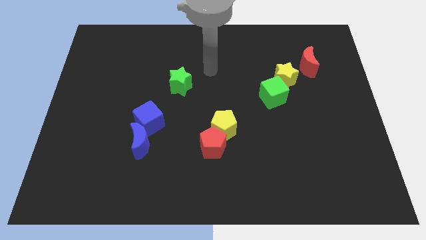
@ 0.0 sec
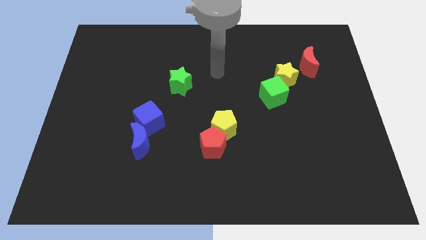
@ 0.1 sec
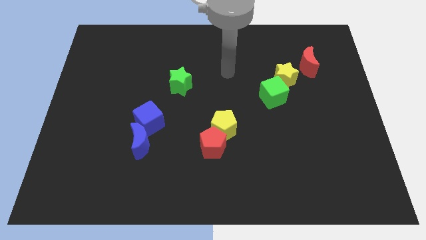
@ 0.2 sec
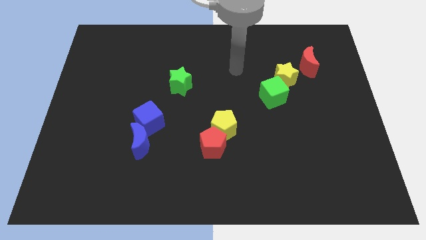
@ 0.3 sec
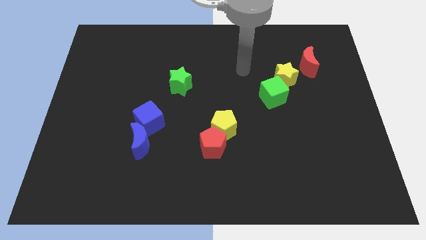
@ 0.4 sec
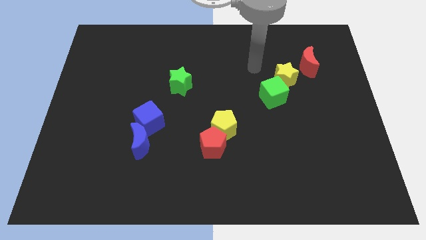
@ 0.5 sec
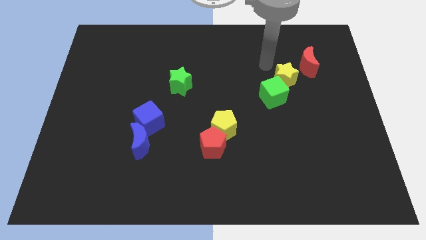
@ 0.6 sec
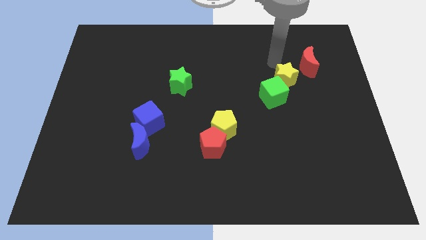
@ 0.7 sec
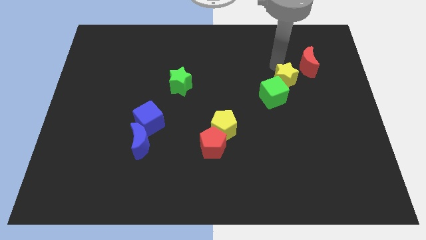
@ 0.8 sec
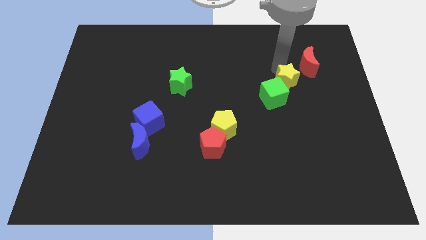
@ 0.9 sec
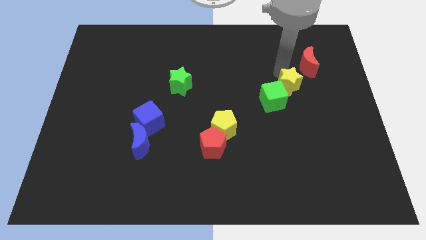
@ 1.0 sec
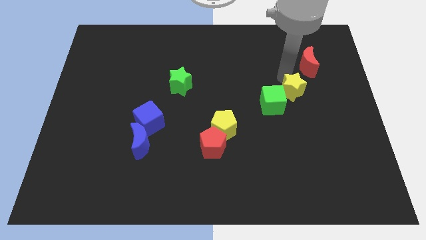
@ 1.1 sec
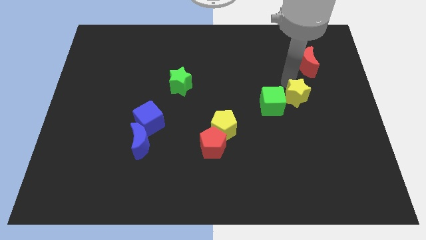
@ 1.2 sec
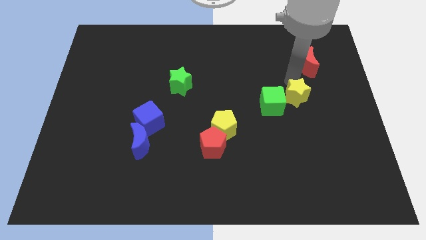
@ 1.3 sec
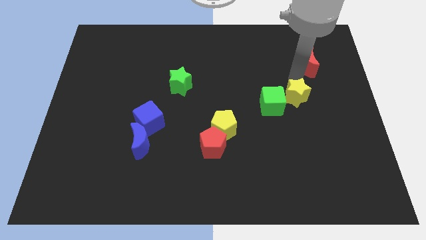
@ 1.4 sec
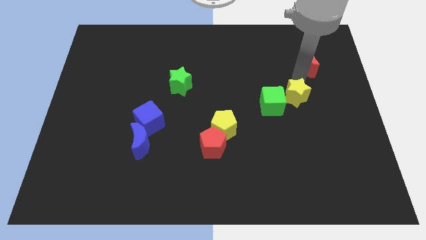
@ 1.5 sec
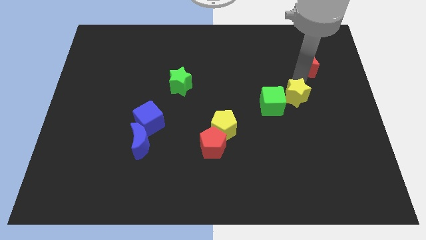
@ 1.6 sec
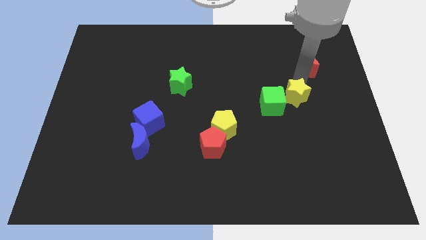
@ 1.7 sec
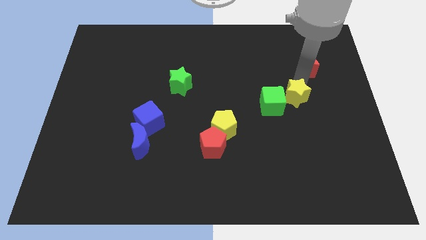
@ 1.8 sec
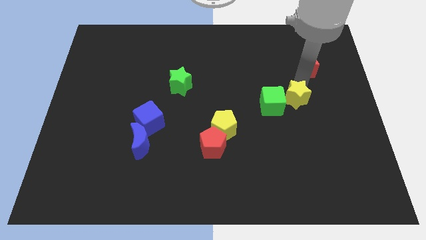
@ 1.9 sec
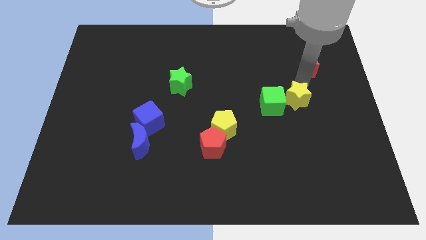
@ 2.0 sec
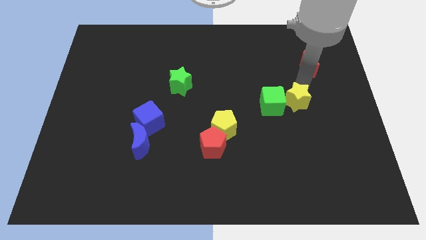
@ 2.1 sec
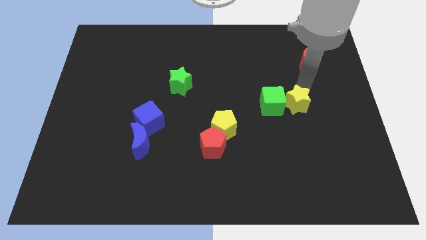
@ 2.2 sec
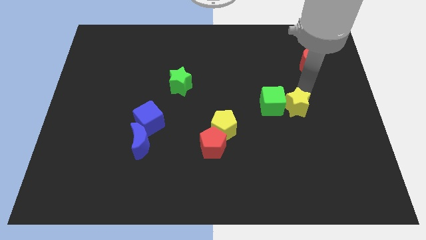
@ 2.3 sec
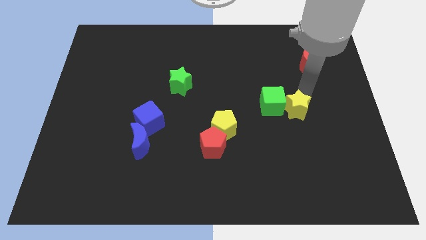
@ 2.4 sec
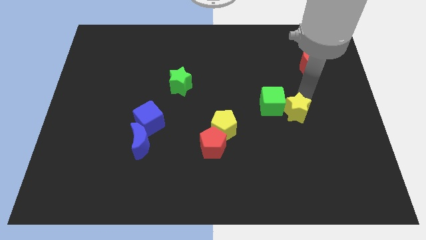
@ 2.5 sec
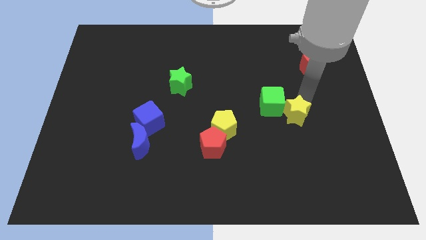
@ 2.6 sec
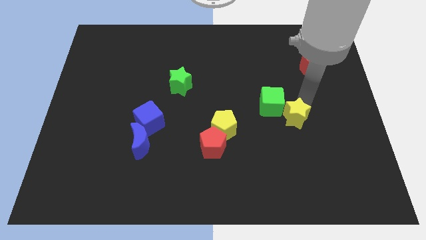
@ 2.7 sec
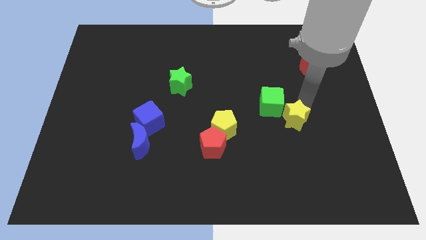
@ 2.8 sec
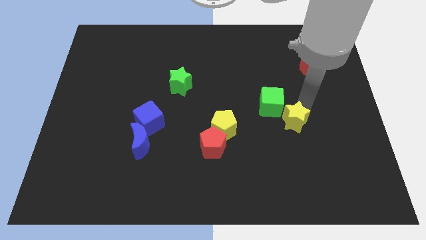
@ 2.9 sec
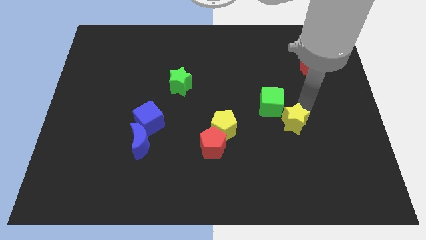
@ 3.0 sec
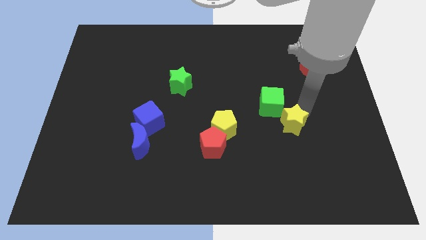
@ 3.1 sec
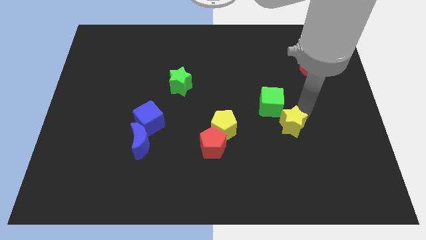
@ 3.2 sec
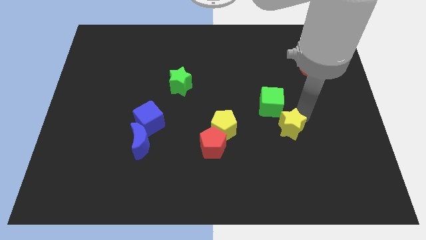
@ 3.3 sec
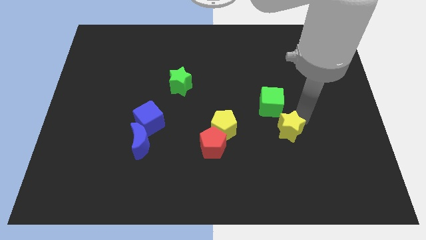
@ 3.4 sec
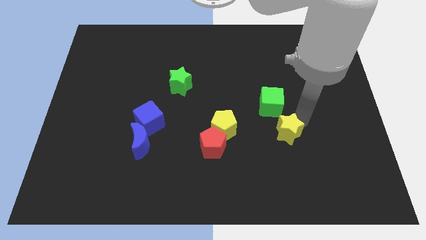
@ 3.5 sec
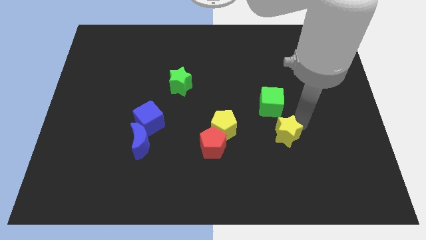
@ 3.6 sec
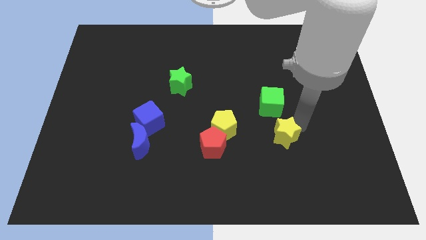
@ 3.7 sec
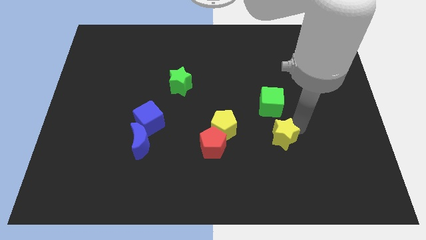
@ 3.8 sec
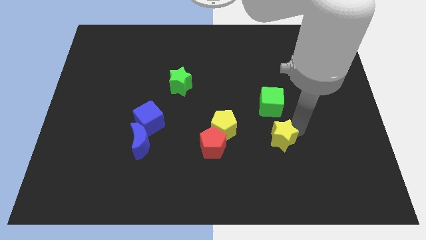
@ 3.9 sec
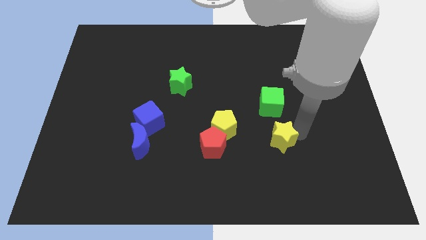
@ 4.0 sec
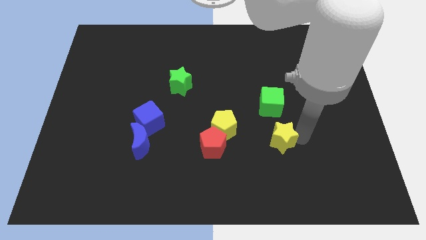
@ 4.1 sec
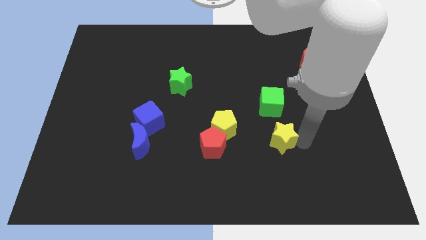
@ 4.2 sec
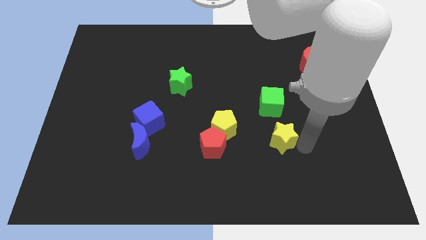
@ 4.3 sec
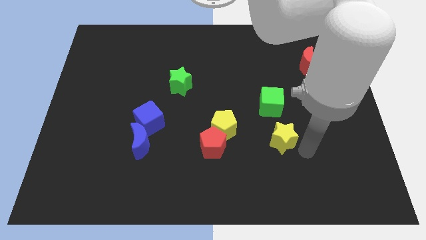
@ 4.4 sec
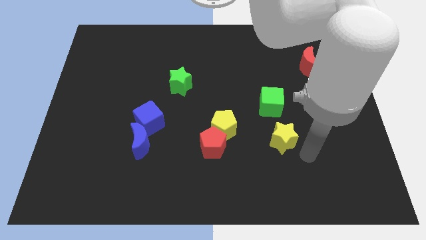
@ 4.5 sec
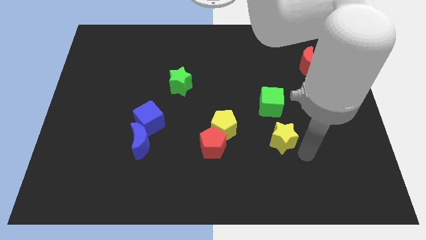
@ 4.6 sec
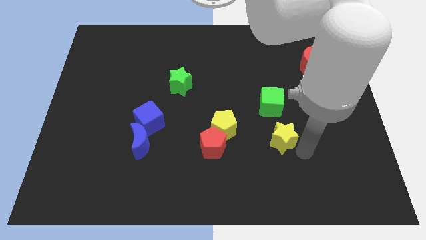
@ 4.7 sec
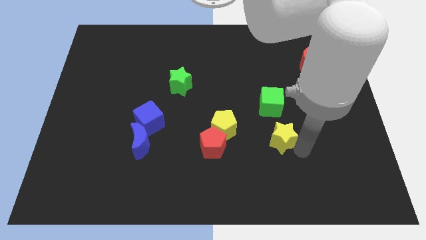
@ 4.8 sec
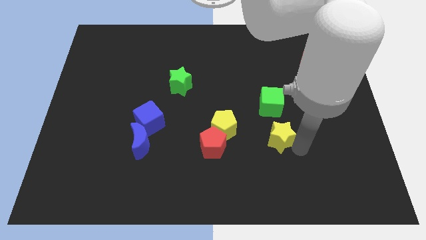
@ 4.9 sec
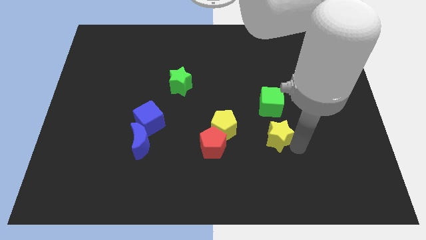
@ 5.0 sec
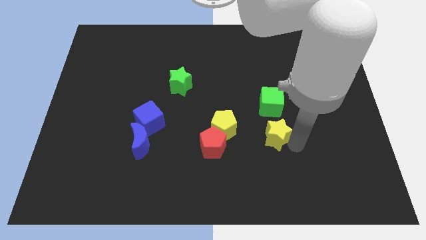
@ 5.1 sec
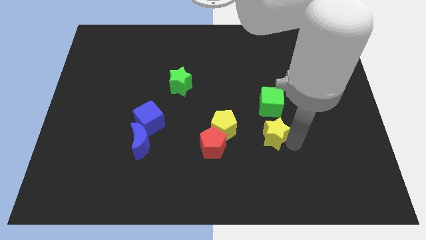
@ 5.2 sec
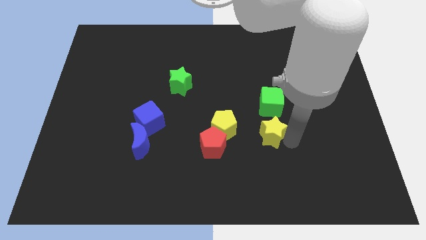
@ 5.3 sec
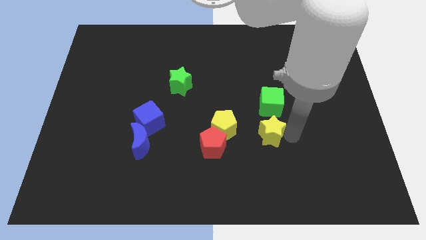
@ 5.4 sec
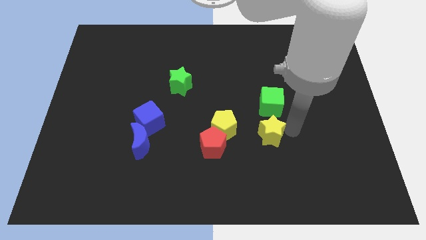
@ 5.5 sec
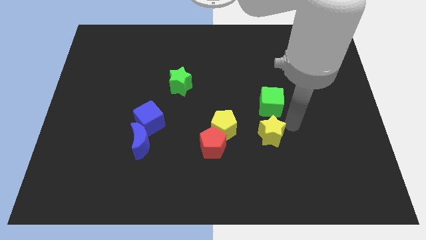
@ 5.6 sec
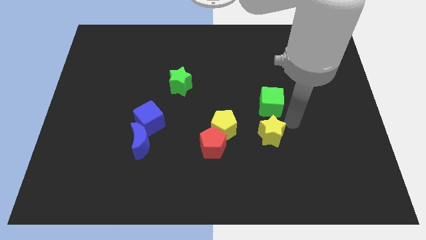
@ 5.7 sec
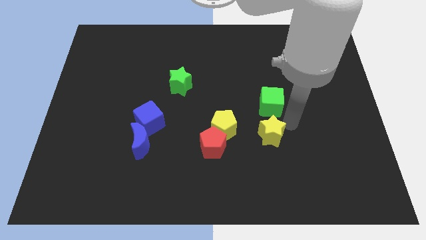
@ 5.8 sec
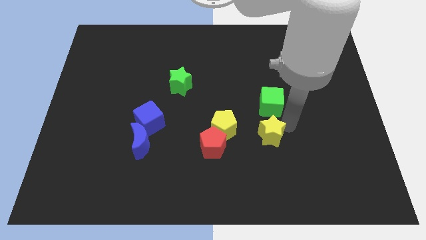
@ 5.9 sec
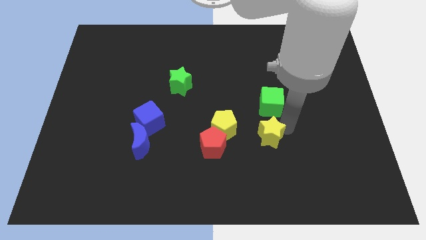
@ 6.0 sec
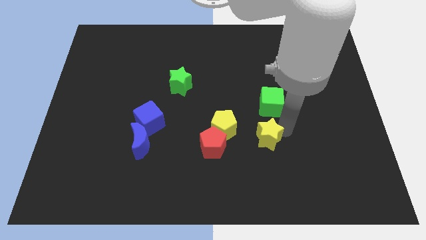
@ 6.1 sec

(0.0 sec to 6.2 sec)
put the yellow star diagonally down and to the right of the yellow pentagon

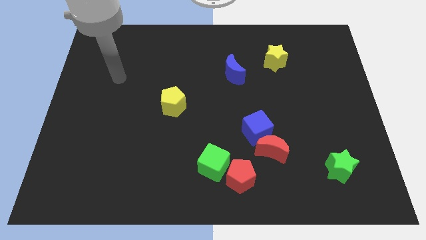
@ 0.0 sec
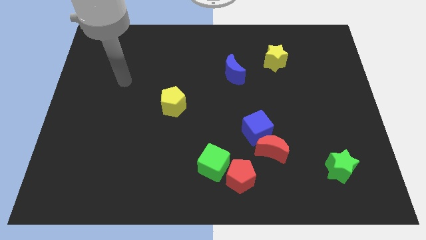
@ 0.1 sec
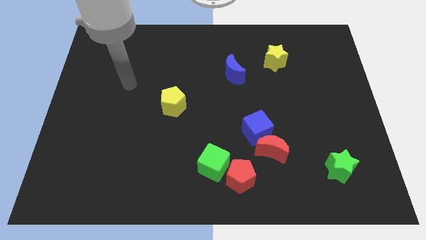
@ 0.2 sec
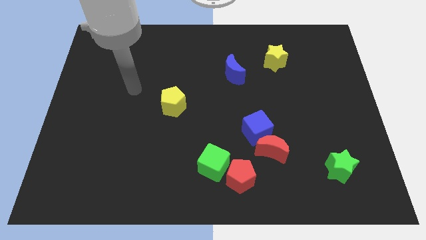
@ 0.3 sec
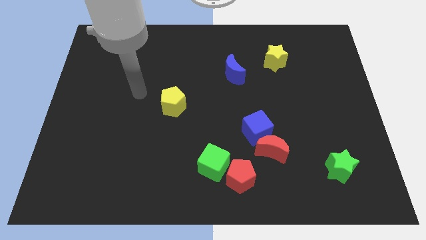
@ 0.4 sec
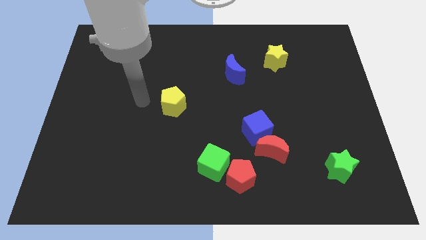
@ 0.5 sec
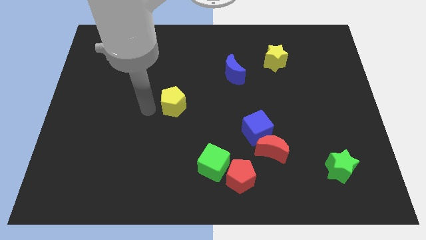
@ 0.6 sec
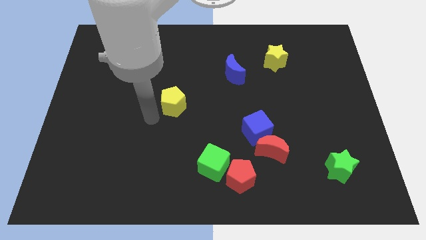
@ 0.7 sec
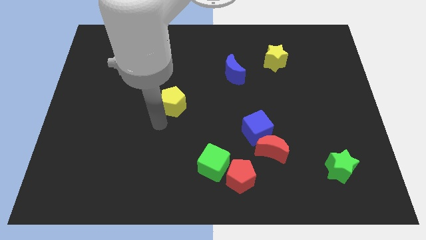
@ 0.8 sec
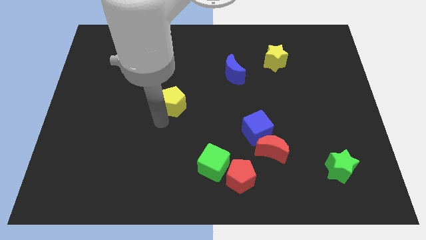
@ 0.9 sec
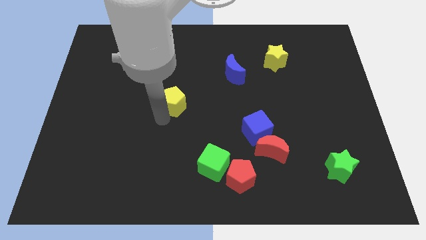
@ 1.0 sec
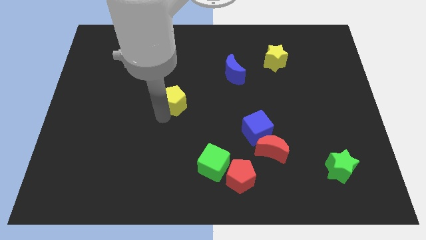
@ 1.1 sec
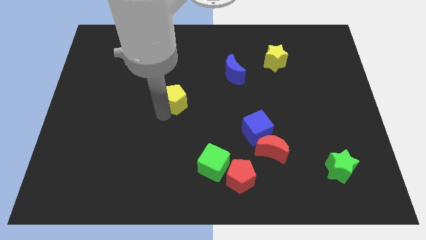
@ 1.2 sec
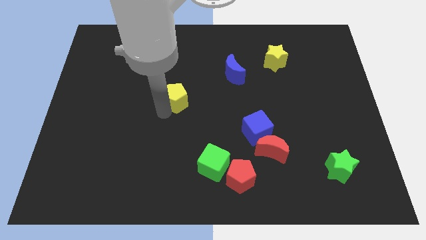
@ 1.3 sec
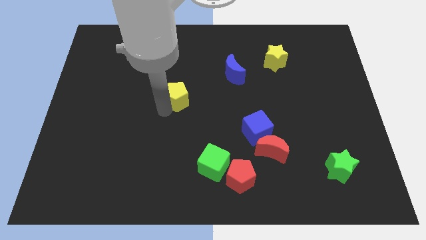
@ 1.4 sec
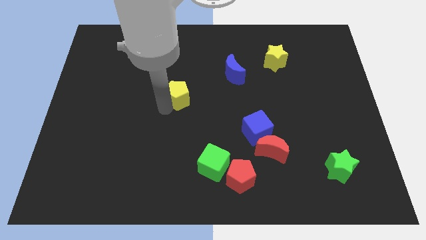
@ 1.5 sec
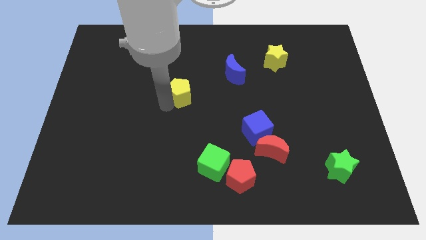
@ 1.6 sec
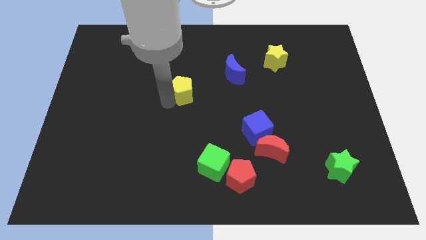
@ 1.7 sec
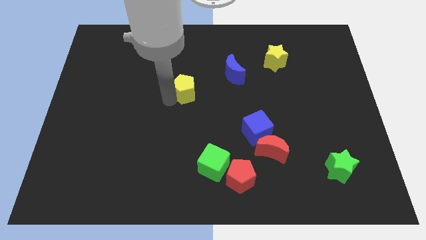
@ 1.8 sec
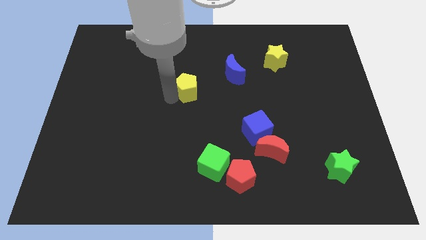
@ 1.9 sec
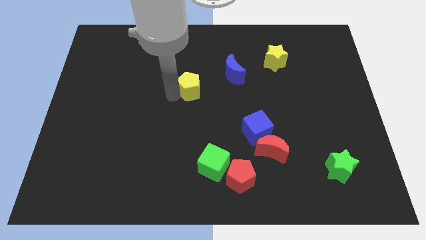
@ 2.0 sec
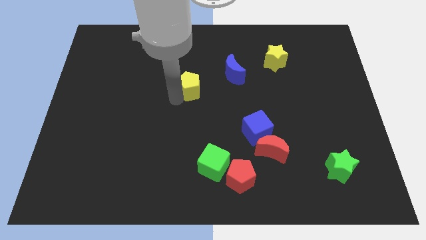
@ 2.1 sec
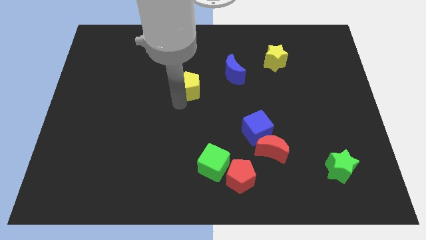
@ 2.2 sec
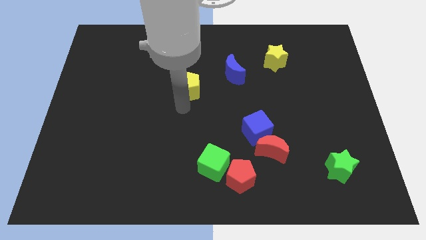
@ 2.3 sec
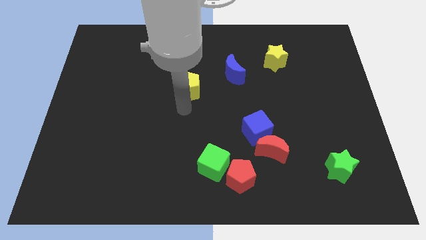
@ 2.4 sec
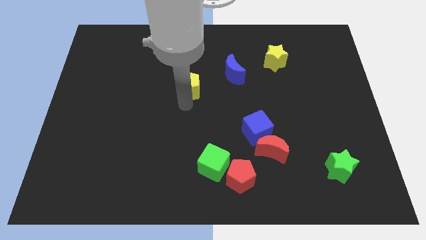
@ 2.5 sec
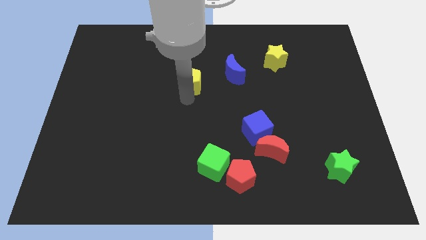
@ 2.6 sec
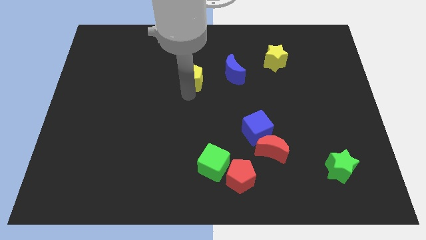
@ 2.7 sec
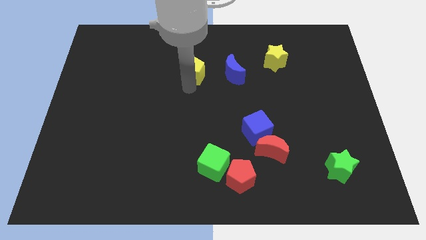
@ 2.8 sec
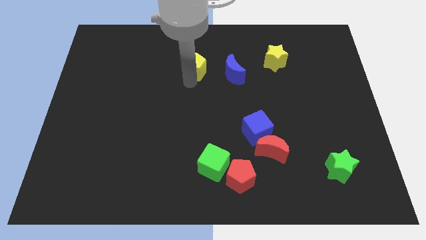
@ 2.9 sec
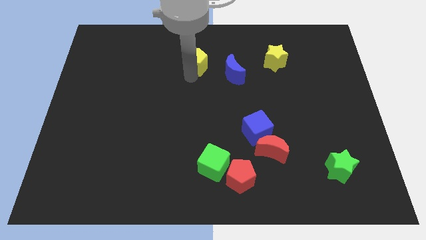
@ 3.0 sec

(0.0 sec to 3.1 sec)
slide the yellow pentagon diagonally up and to the left of the blue moon
